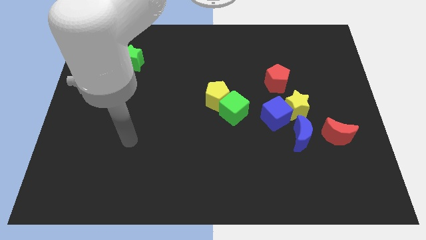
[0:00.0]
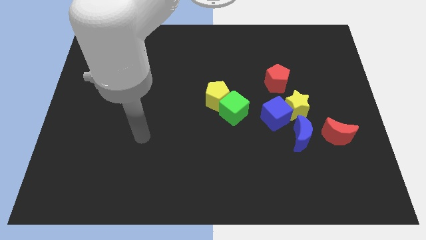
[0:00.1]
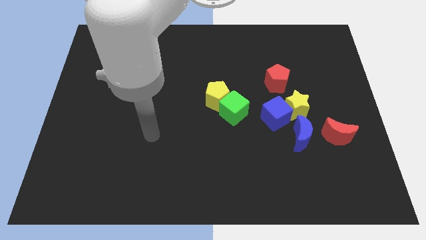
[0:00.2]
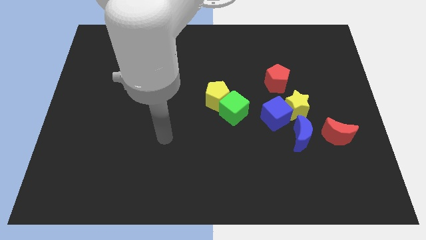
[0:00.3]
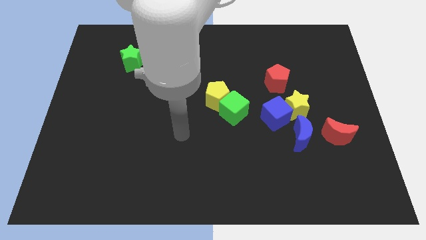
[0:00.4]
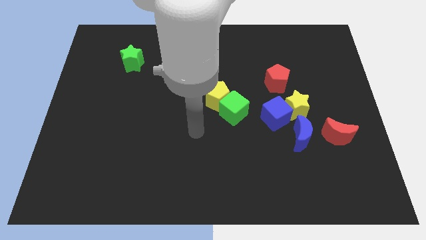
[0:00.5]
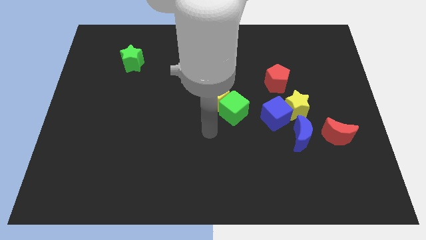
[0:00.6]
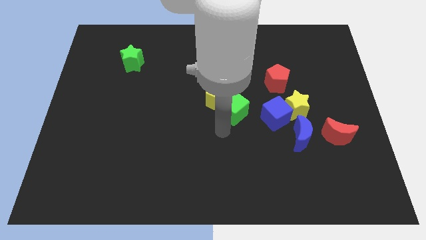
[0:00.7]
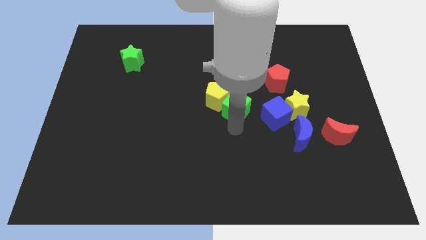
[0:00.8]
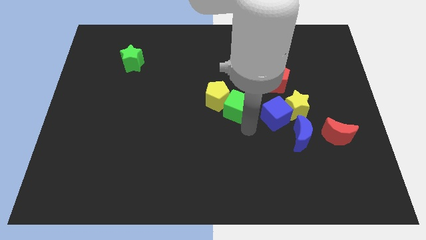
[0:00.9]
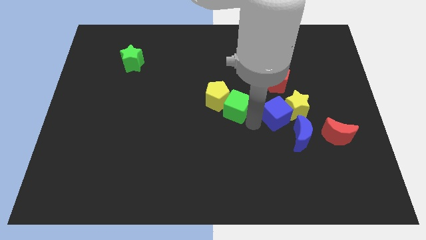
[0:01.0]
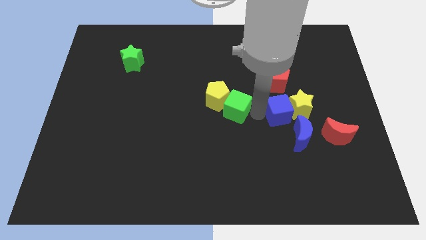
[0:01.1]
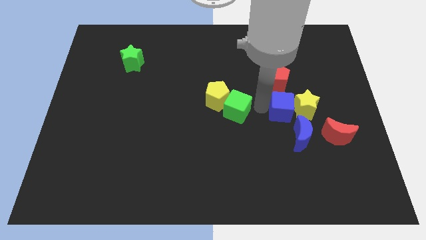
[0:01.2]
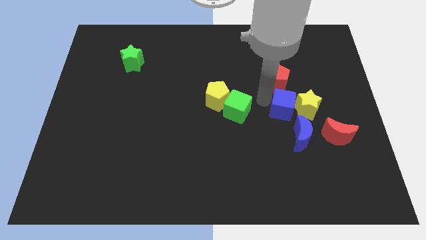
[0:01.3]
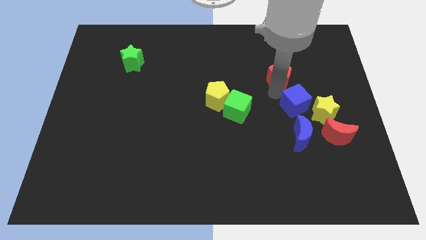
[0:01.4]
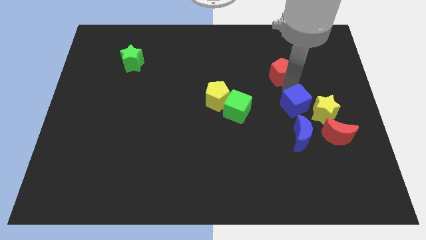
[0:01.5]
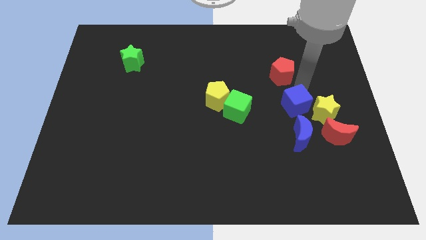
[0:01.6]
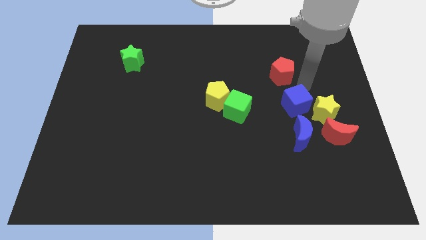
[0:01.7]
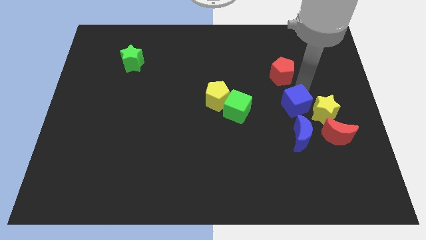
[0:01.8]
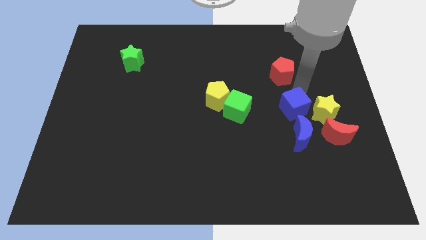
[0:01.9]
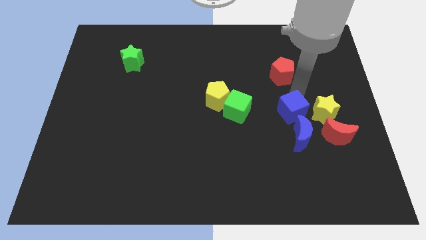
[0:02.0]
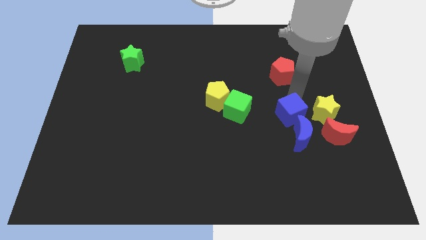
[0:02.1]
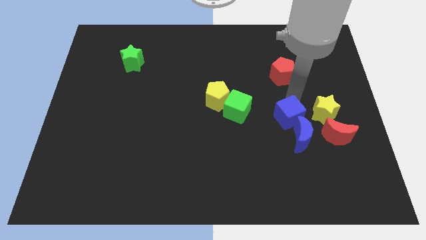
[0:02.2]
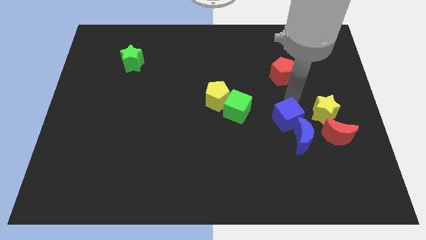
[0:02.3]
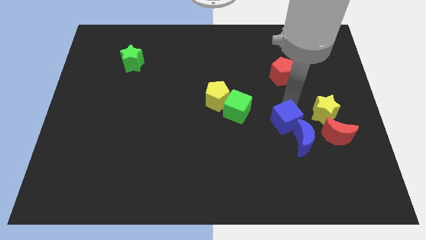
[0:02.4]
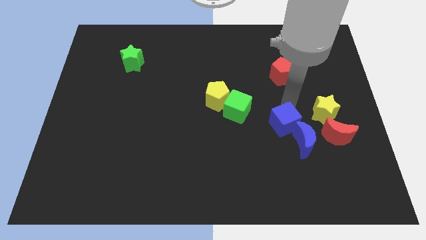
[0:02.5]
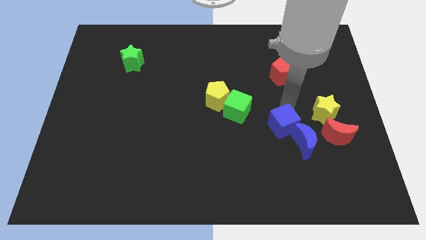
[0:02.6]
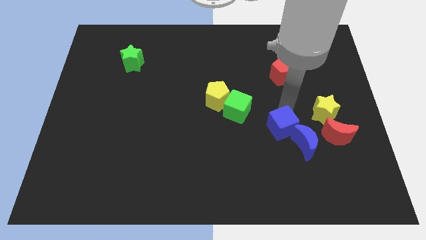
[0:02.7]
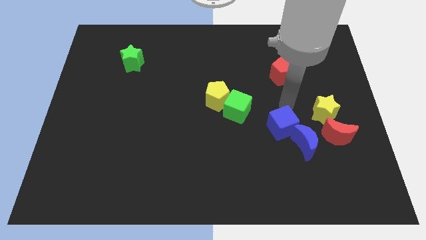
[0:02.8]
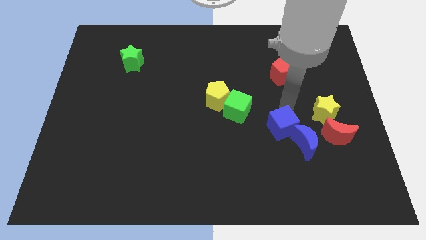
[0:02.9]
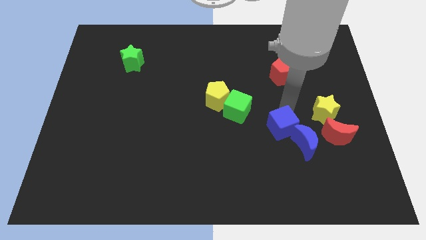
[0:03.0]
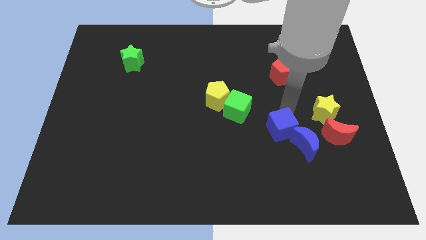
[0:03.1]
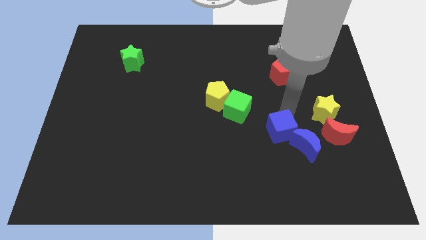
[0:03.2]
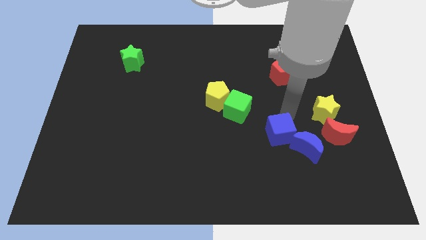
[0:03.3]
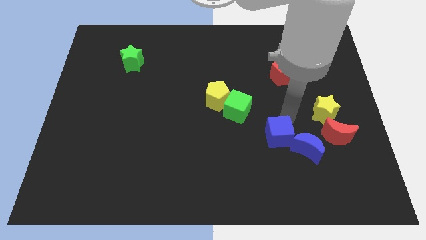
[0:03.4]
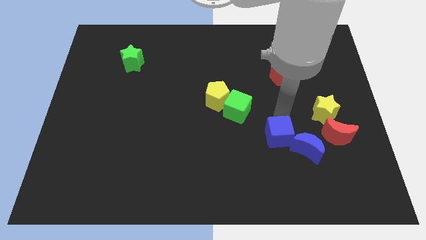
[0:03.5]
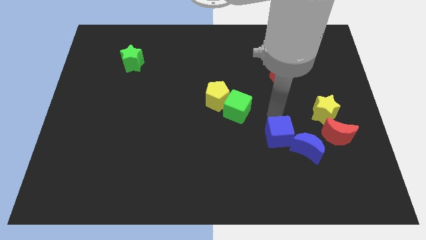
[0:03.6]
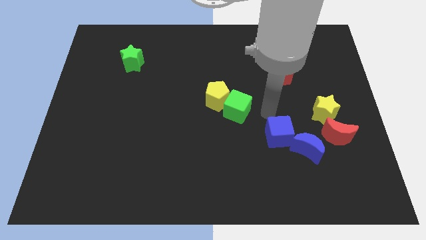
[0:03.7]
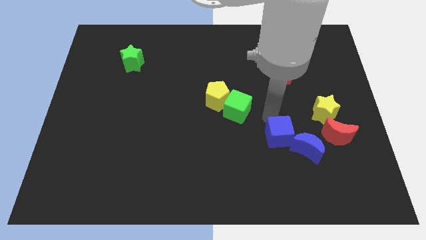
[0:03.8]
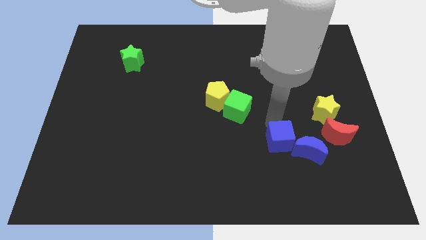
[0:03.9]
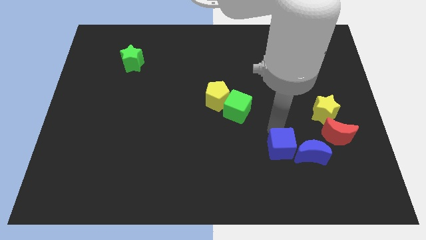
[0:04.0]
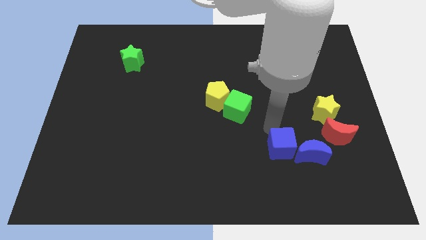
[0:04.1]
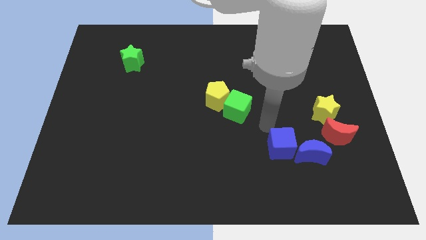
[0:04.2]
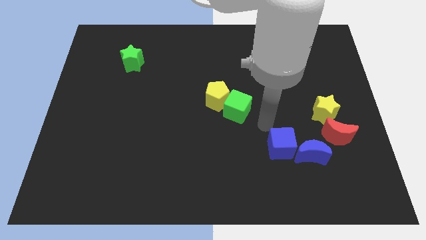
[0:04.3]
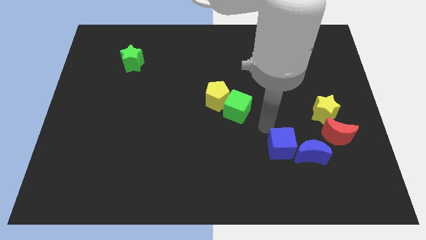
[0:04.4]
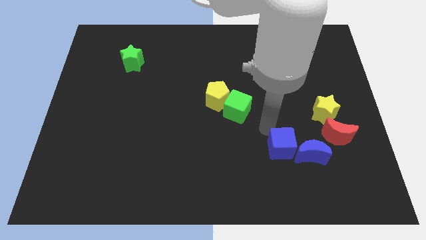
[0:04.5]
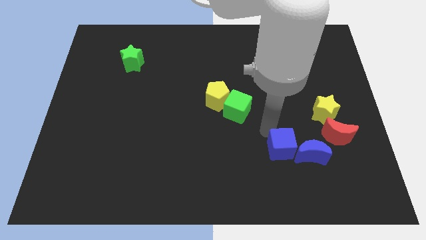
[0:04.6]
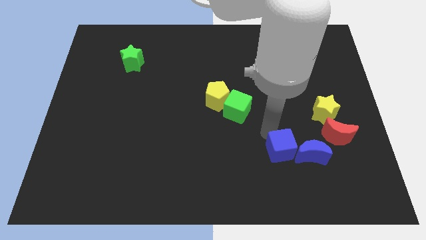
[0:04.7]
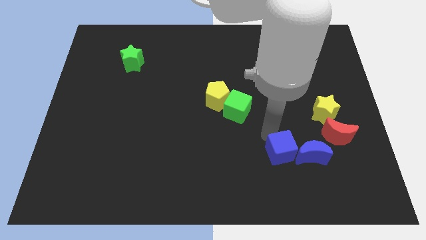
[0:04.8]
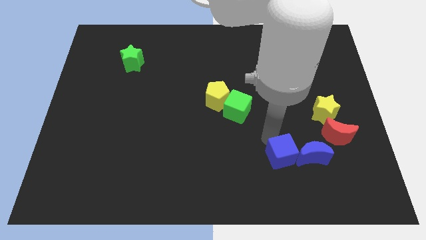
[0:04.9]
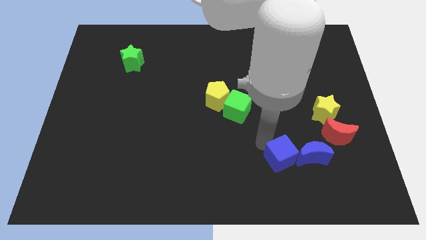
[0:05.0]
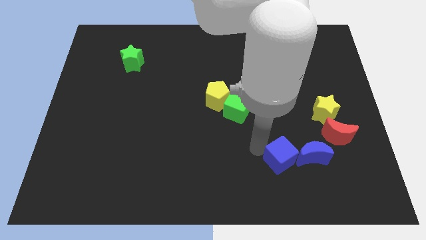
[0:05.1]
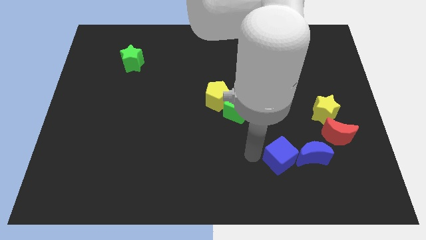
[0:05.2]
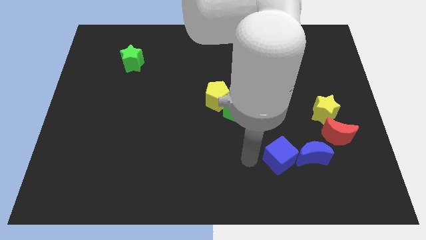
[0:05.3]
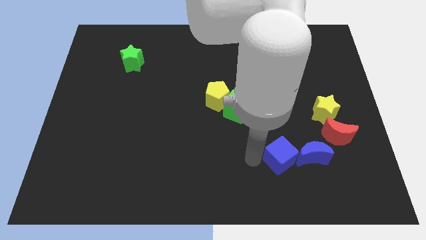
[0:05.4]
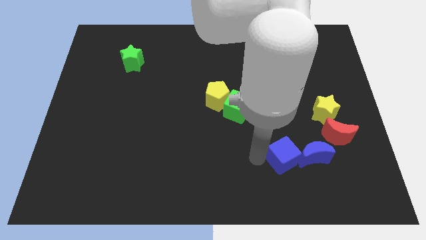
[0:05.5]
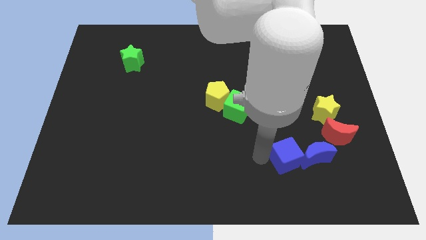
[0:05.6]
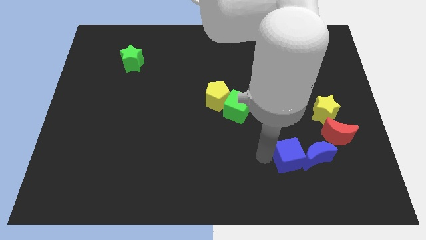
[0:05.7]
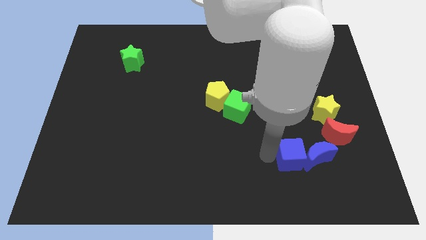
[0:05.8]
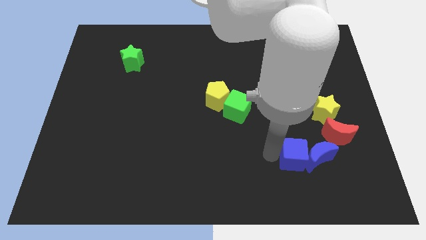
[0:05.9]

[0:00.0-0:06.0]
push the blue cube diagonally down and to the left of the red moon
